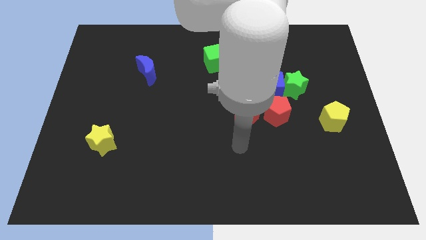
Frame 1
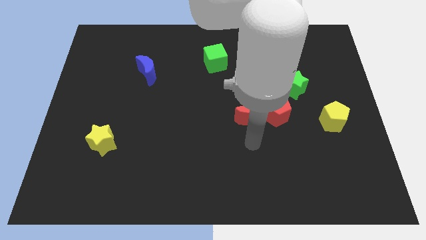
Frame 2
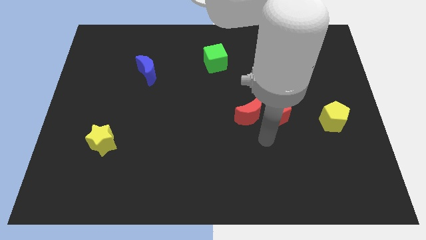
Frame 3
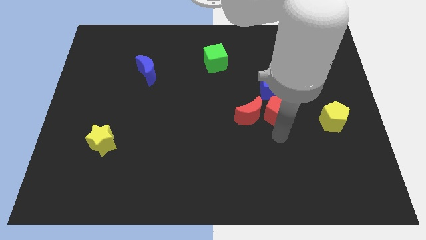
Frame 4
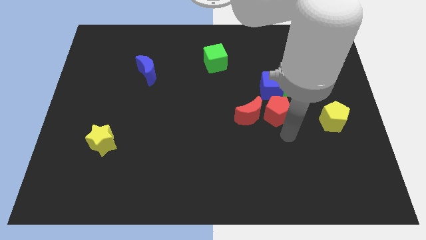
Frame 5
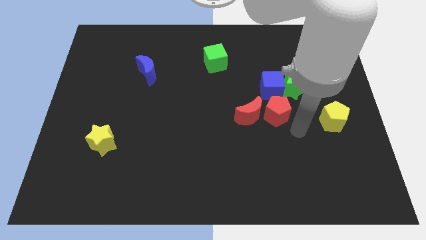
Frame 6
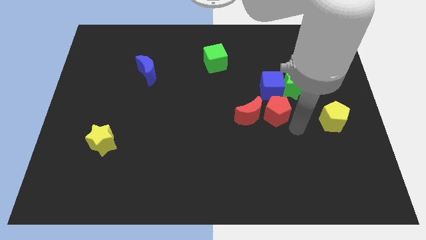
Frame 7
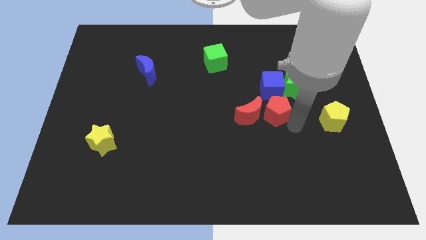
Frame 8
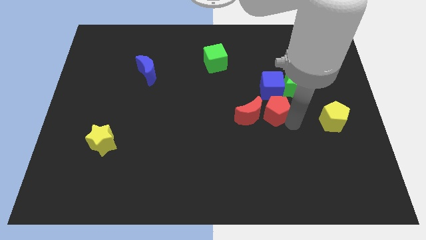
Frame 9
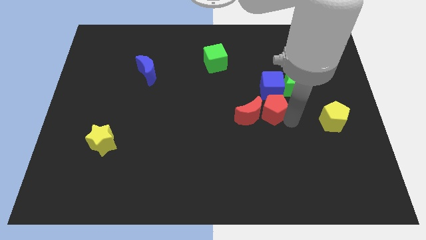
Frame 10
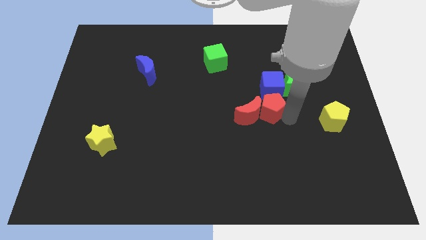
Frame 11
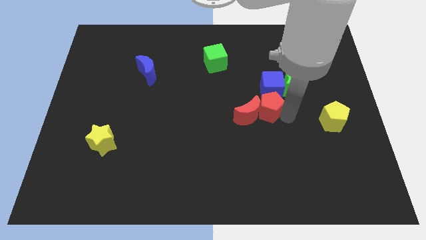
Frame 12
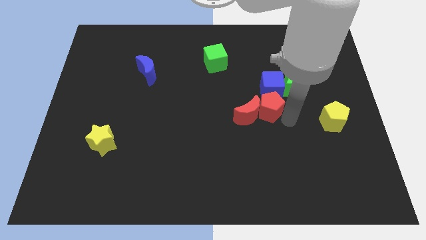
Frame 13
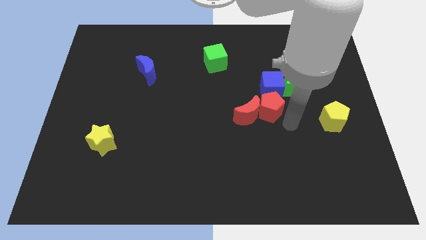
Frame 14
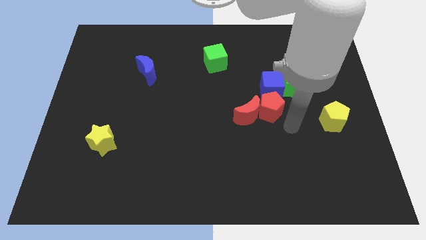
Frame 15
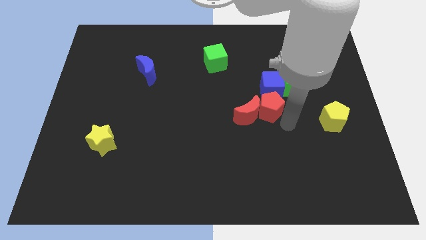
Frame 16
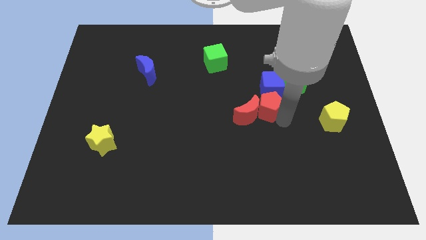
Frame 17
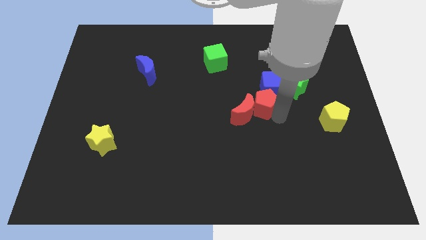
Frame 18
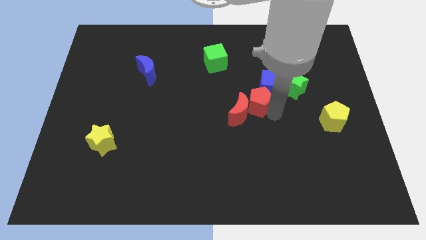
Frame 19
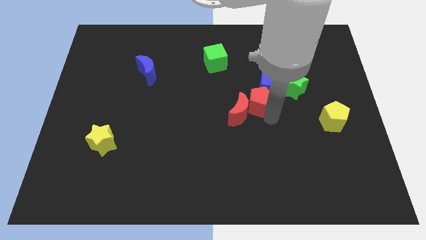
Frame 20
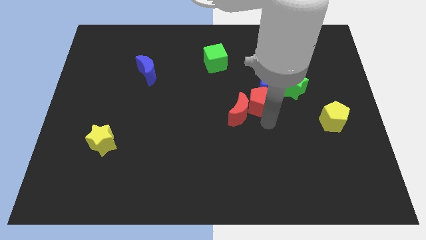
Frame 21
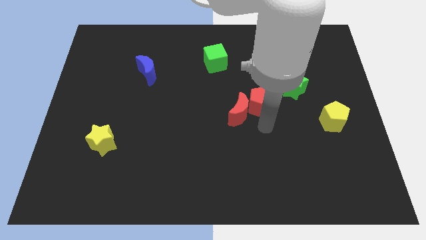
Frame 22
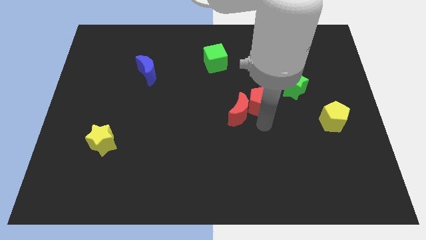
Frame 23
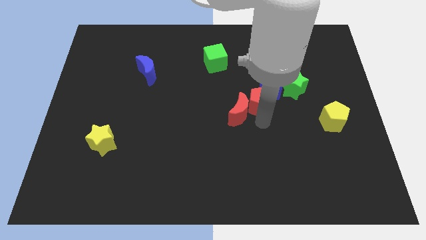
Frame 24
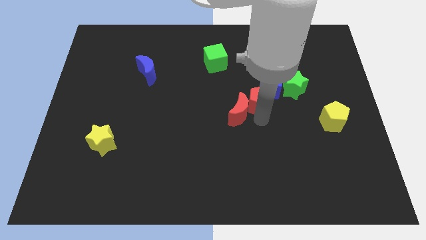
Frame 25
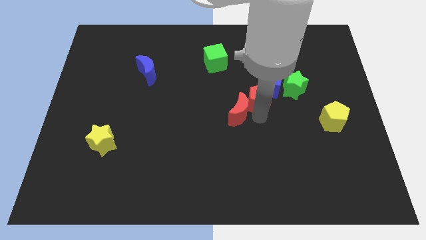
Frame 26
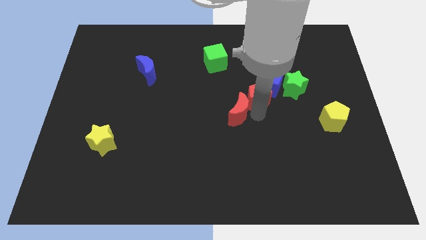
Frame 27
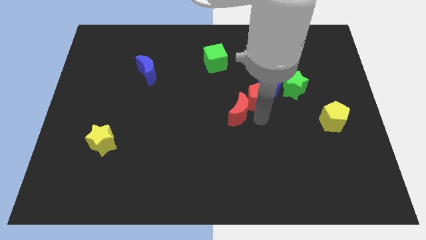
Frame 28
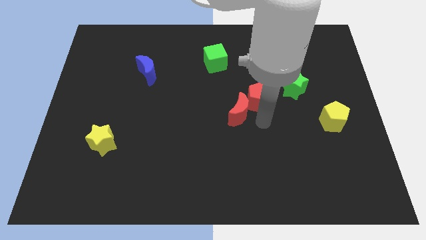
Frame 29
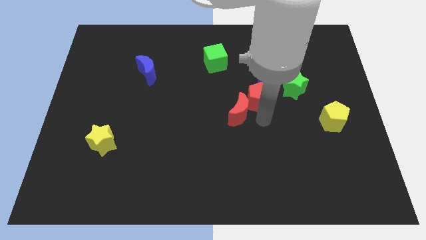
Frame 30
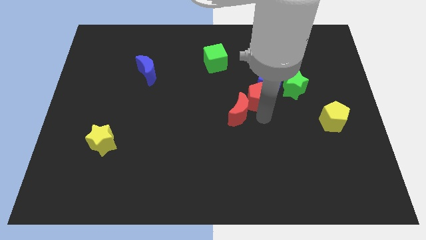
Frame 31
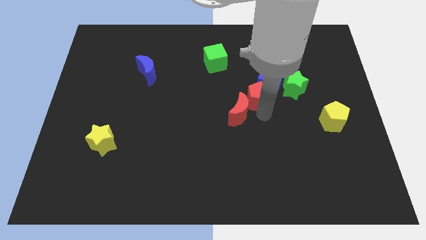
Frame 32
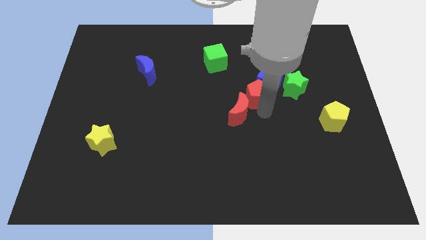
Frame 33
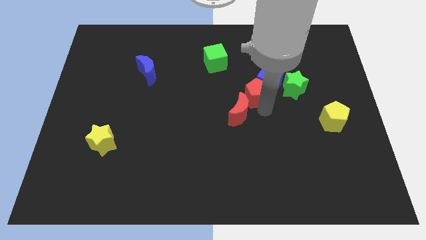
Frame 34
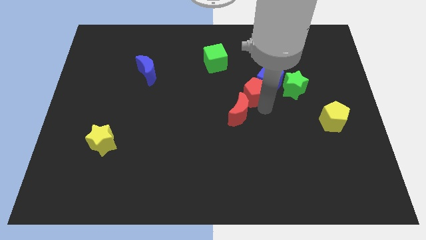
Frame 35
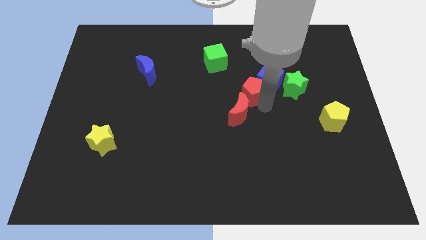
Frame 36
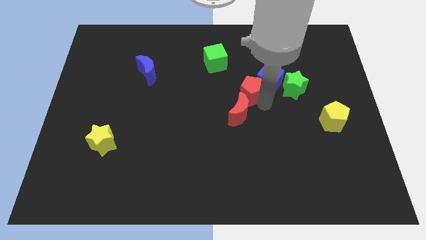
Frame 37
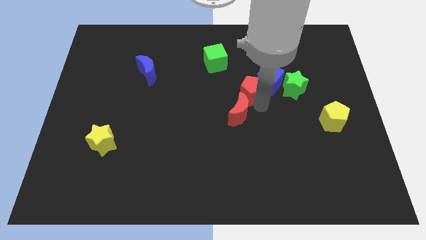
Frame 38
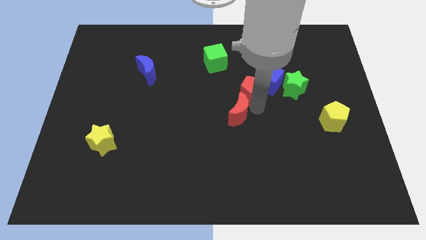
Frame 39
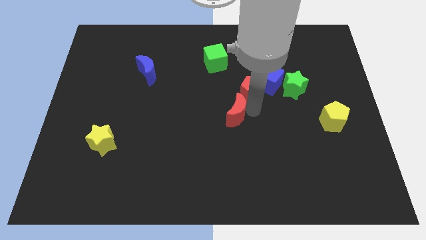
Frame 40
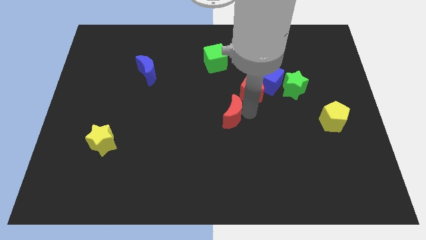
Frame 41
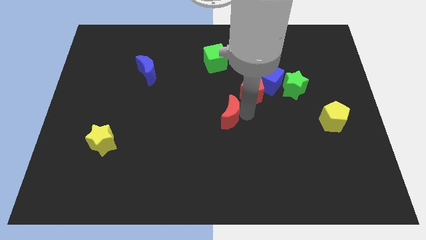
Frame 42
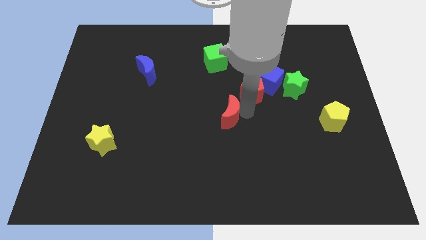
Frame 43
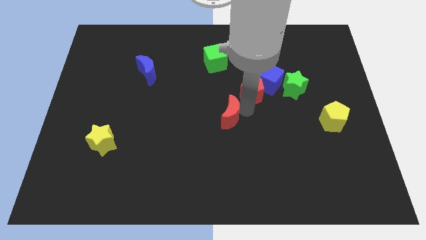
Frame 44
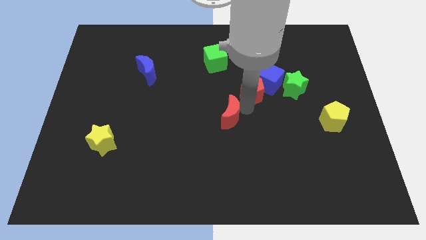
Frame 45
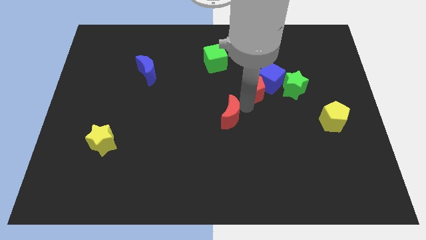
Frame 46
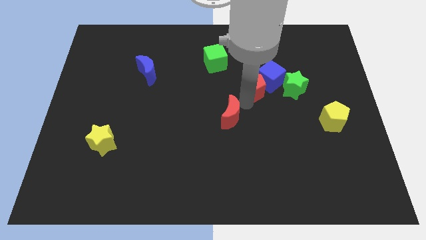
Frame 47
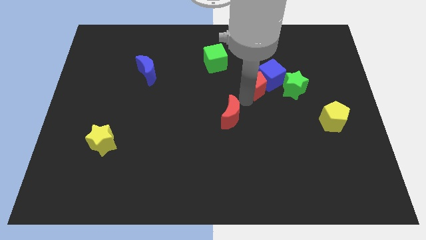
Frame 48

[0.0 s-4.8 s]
slightly push the red pentagon up

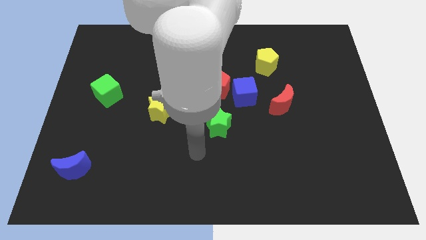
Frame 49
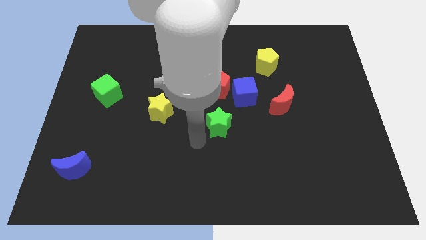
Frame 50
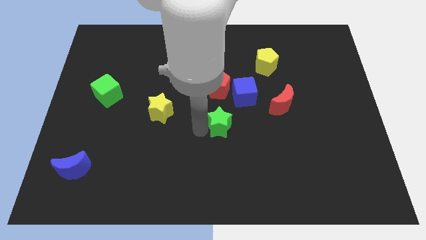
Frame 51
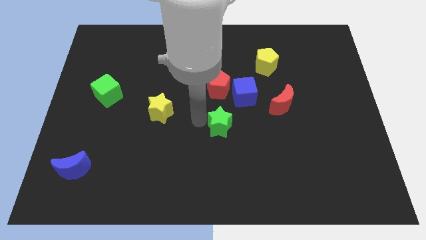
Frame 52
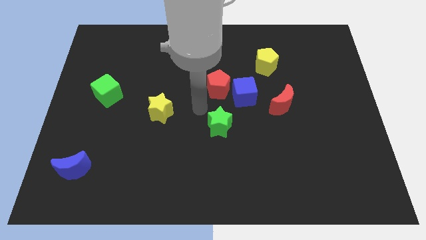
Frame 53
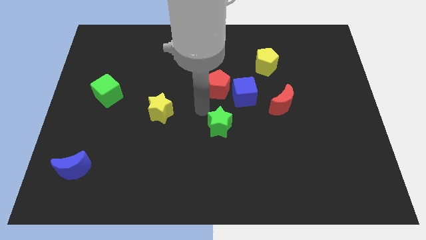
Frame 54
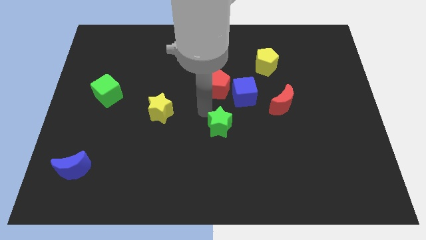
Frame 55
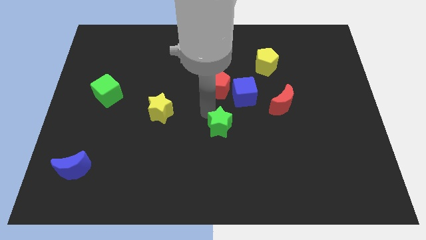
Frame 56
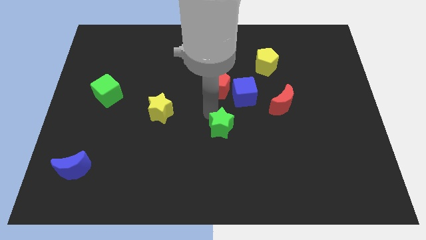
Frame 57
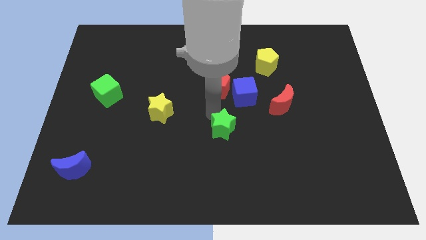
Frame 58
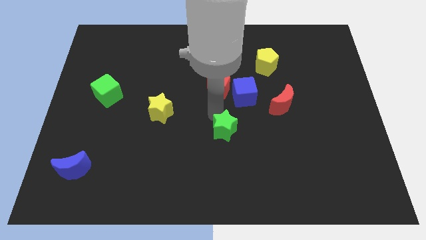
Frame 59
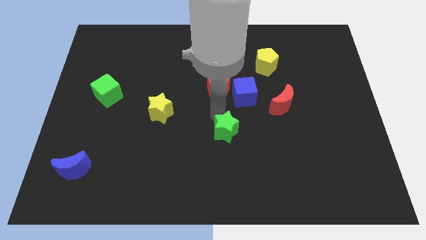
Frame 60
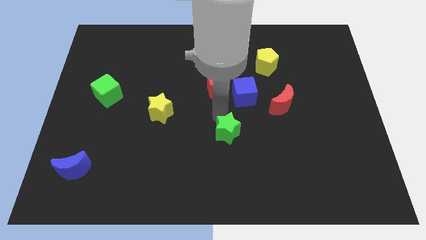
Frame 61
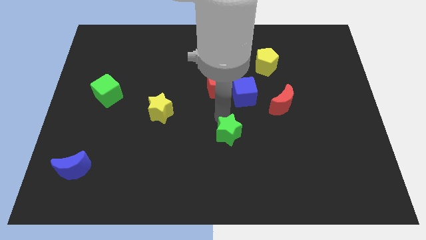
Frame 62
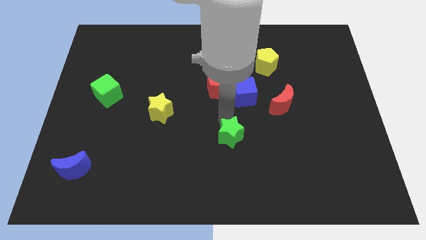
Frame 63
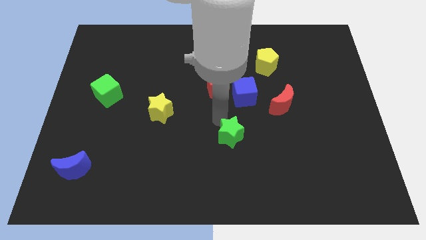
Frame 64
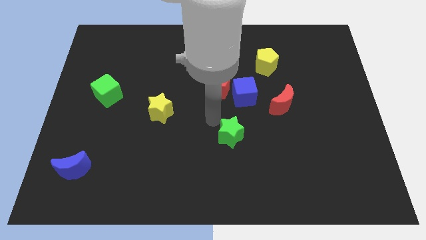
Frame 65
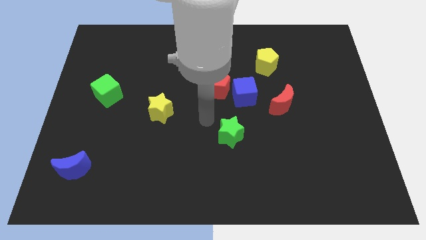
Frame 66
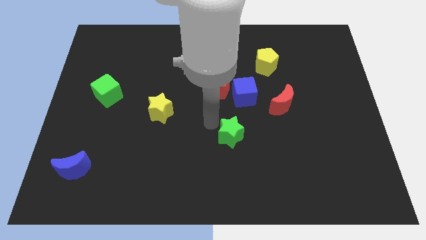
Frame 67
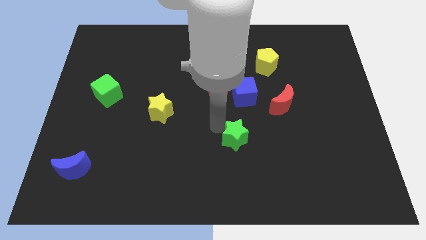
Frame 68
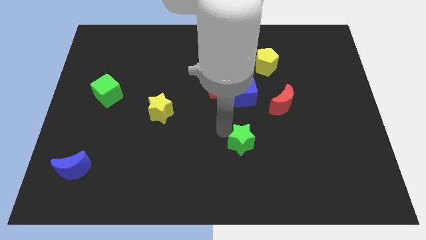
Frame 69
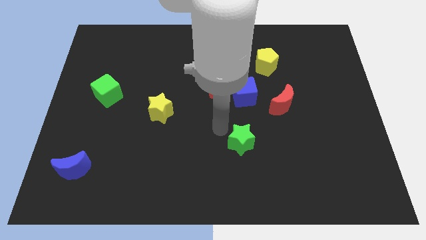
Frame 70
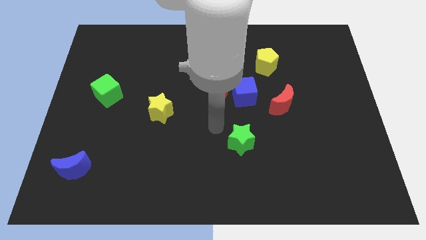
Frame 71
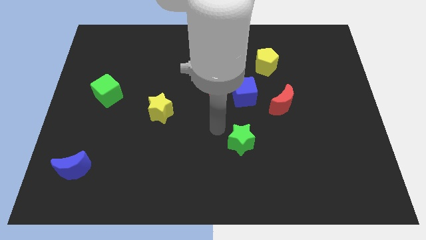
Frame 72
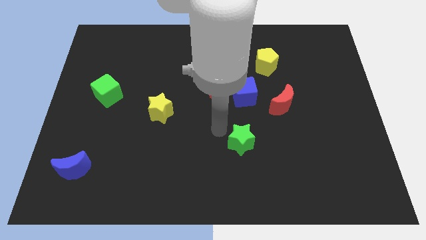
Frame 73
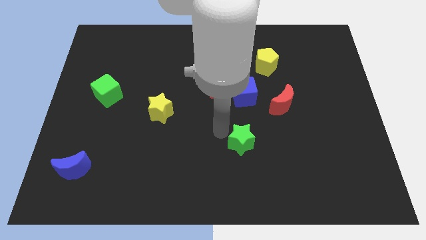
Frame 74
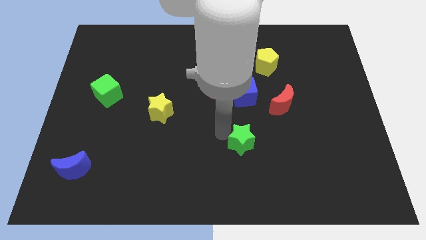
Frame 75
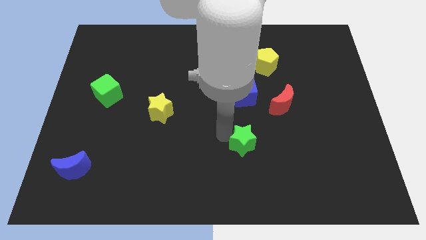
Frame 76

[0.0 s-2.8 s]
move the green star a little bit down and to the right diagonally

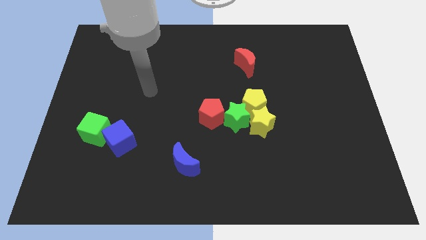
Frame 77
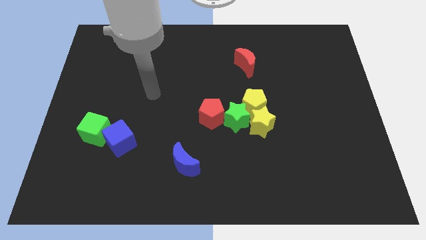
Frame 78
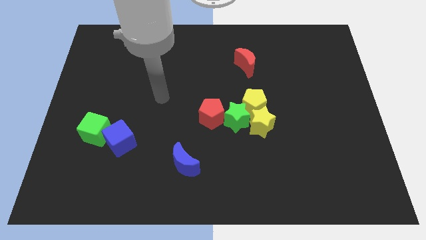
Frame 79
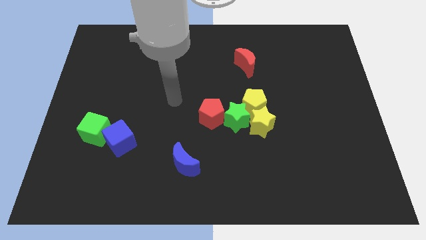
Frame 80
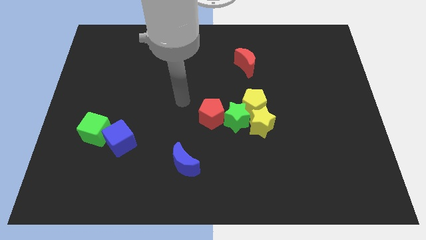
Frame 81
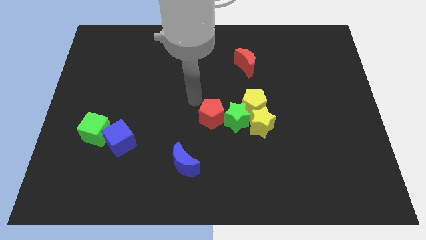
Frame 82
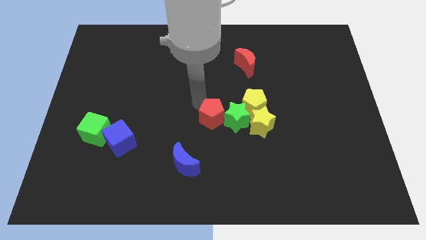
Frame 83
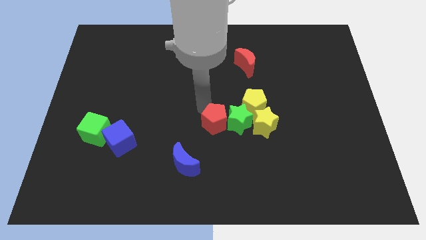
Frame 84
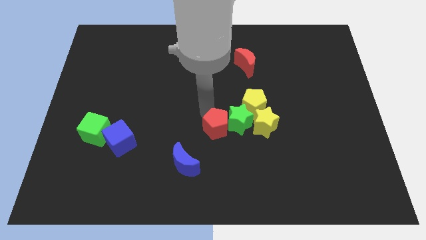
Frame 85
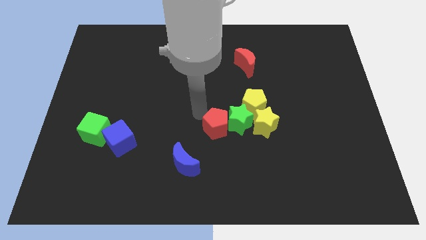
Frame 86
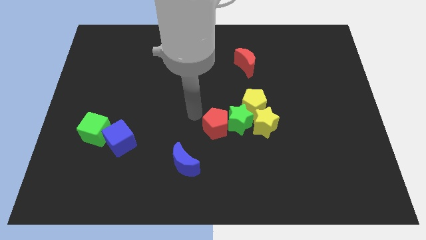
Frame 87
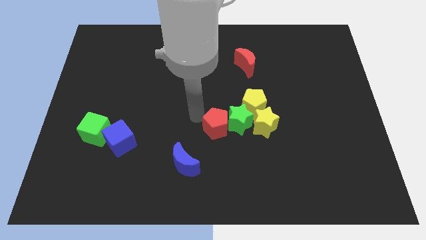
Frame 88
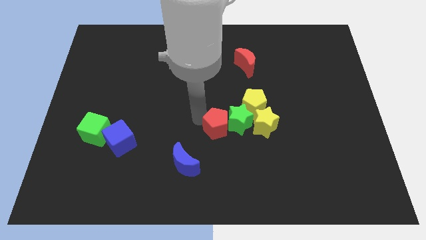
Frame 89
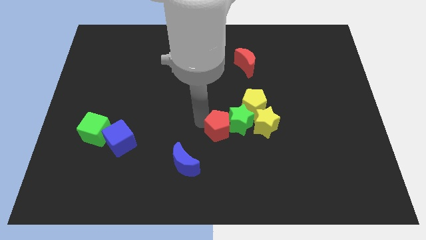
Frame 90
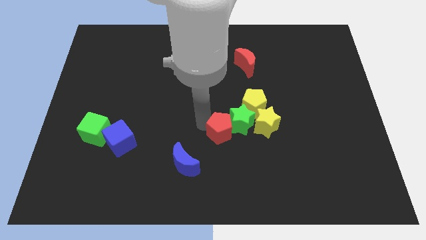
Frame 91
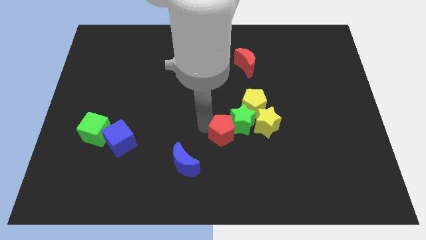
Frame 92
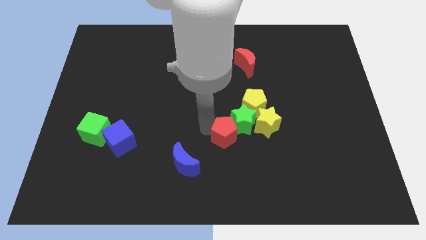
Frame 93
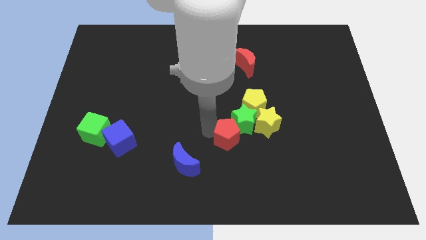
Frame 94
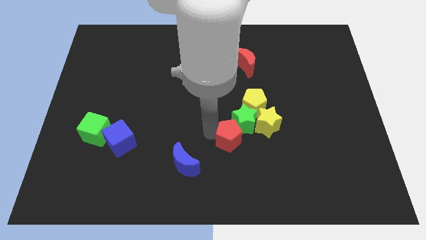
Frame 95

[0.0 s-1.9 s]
slide the red pentagon somewhat down and right
